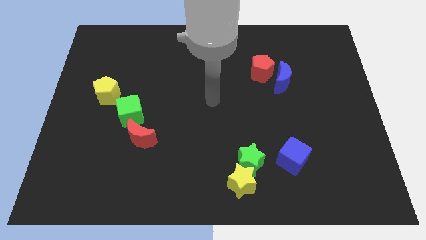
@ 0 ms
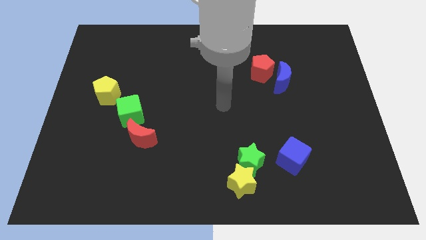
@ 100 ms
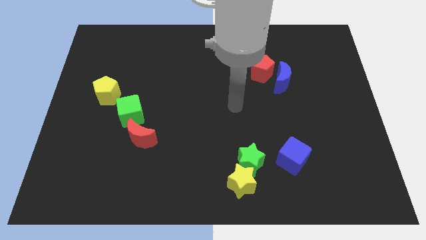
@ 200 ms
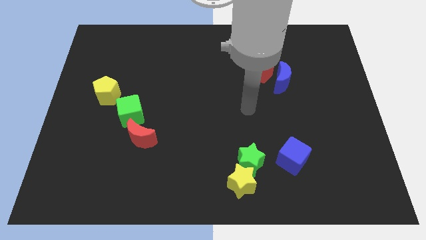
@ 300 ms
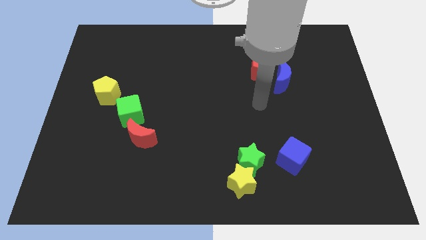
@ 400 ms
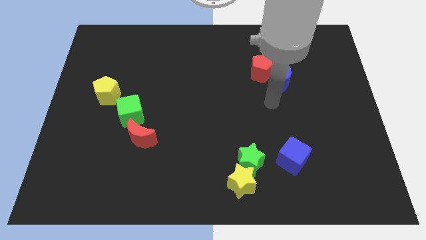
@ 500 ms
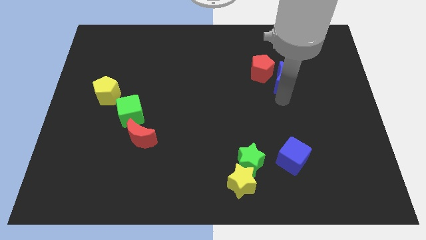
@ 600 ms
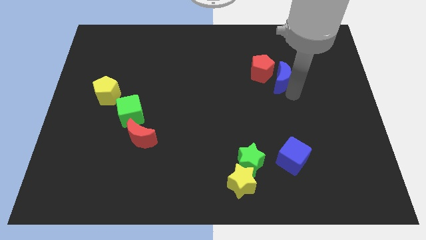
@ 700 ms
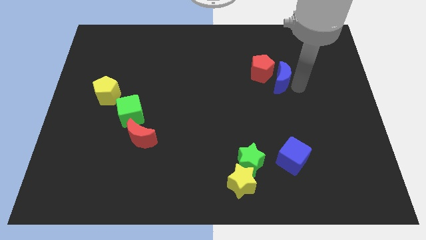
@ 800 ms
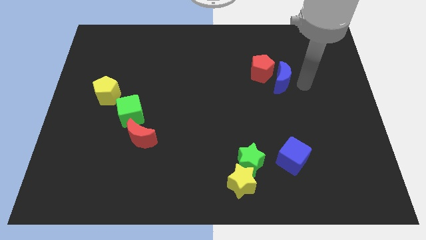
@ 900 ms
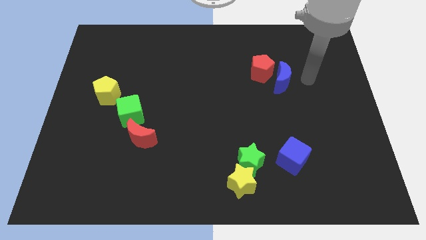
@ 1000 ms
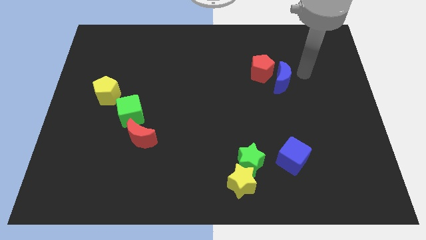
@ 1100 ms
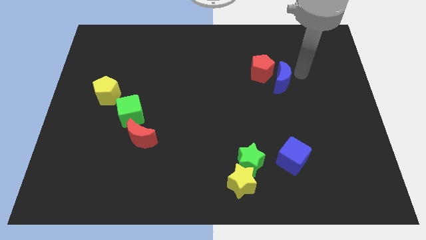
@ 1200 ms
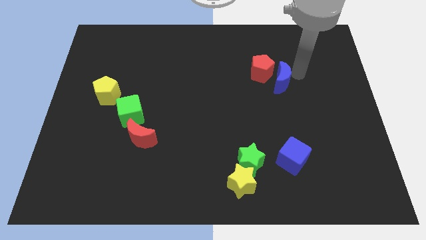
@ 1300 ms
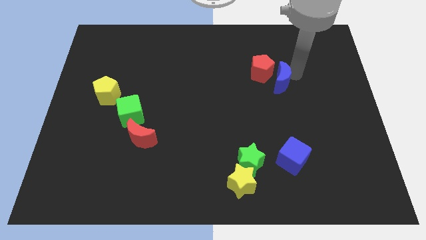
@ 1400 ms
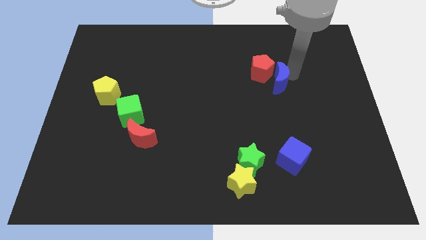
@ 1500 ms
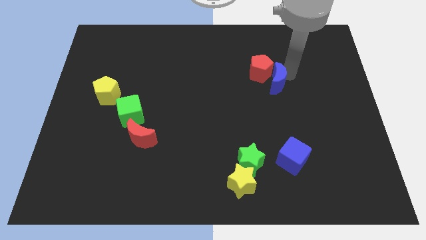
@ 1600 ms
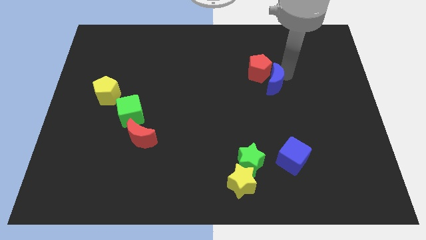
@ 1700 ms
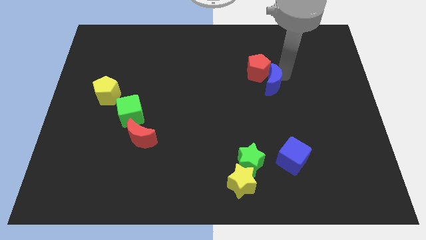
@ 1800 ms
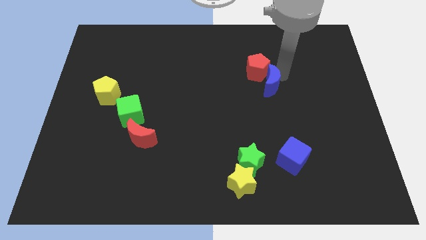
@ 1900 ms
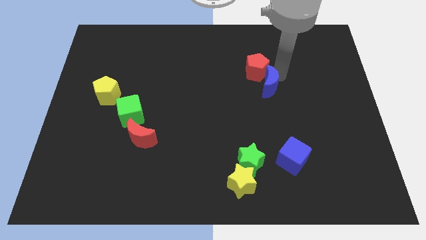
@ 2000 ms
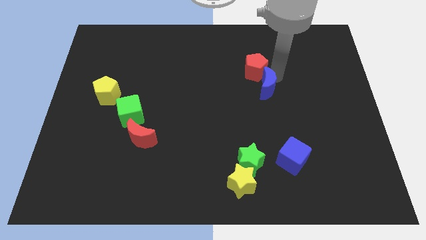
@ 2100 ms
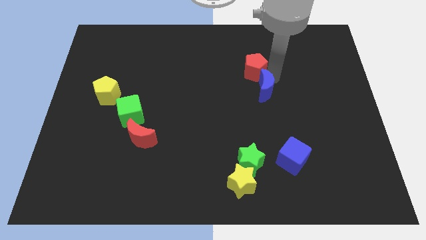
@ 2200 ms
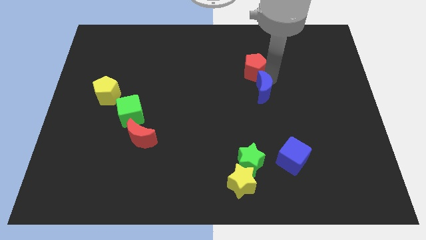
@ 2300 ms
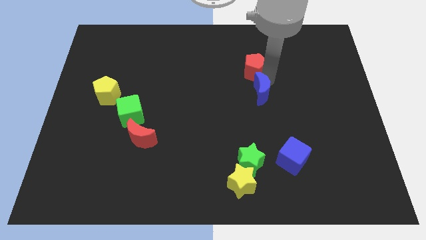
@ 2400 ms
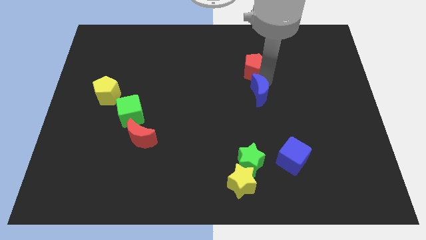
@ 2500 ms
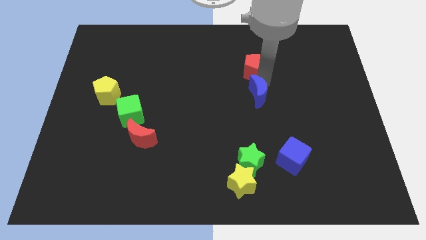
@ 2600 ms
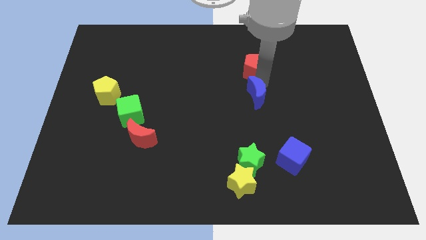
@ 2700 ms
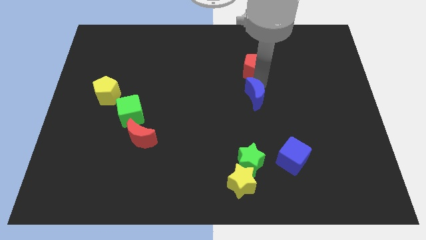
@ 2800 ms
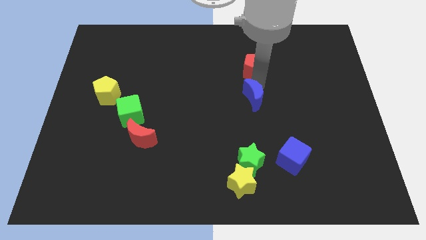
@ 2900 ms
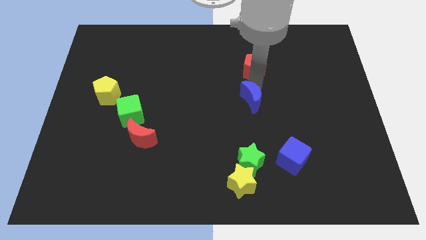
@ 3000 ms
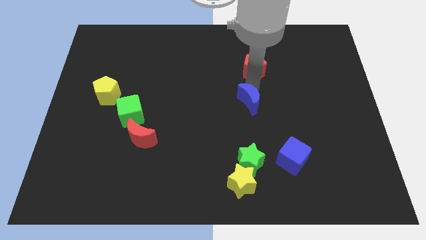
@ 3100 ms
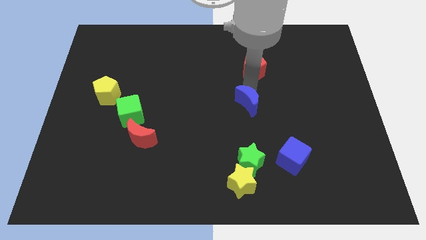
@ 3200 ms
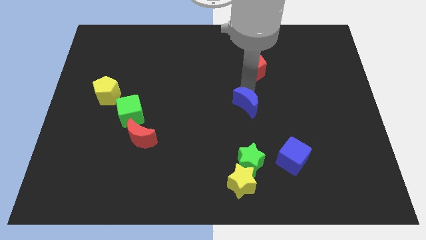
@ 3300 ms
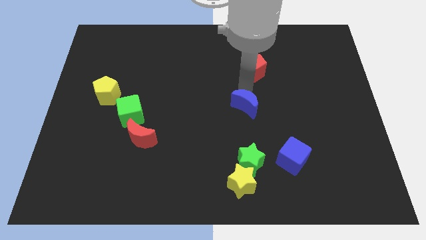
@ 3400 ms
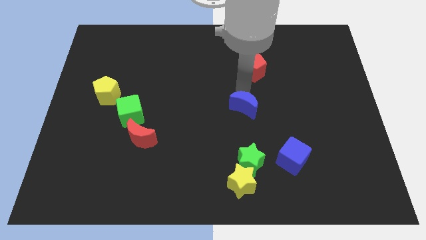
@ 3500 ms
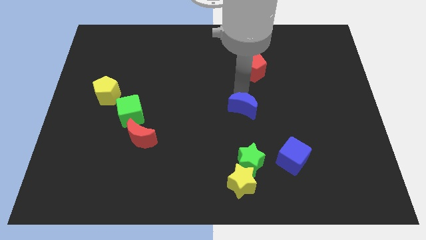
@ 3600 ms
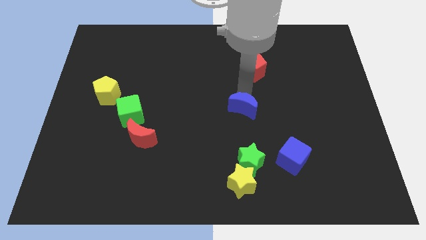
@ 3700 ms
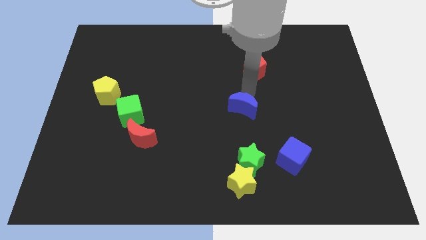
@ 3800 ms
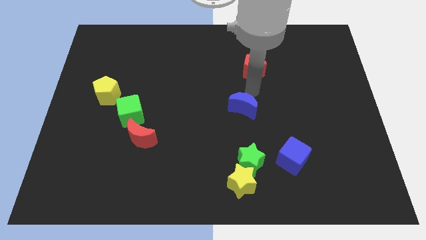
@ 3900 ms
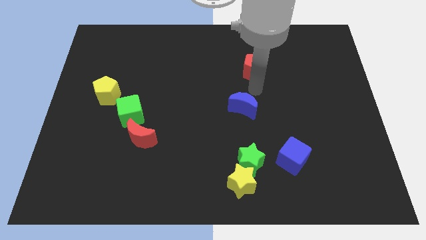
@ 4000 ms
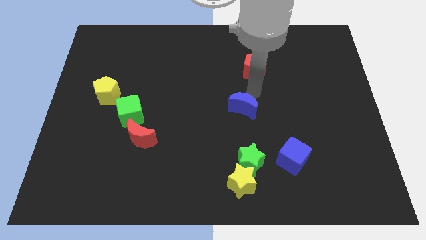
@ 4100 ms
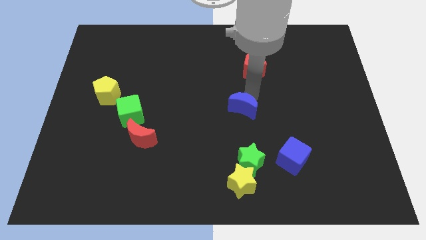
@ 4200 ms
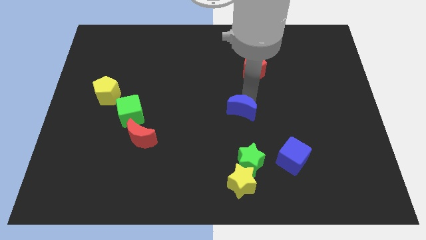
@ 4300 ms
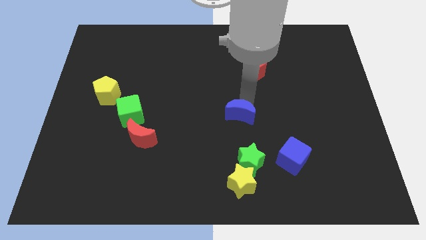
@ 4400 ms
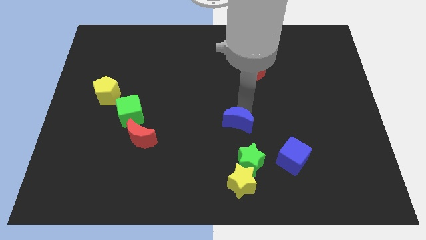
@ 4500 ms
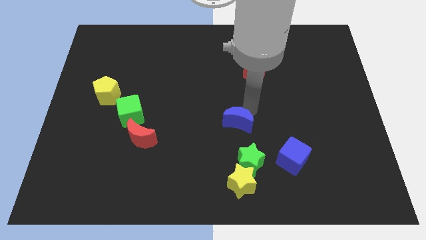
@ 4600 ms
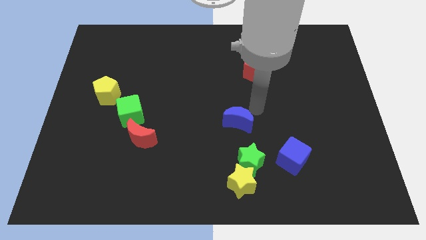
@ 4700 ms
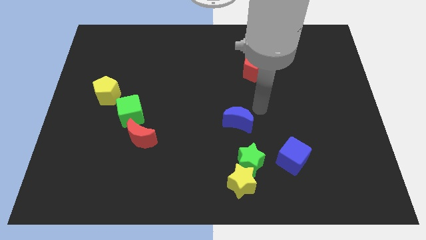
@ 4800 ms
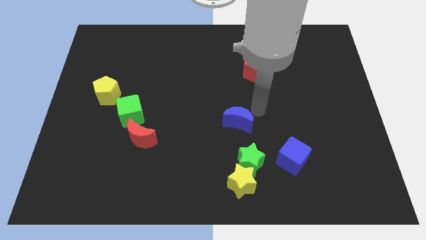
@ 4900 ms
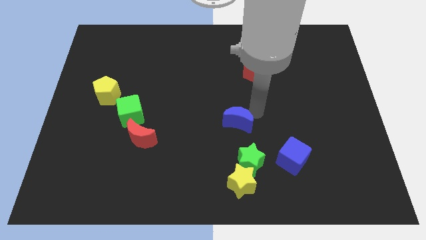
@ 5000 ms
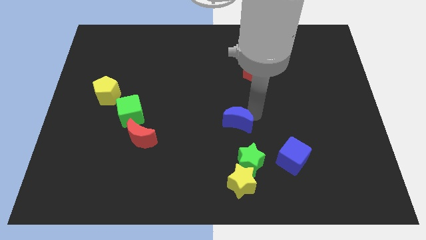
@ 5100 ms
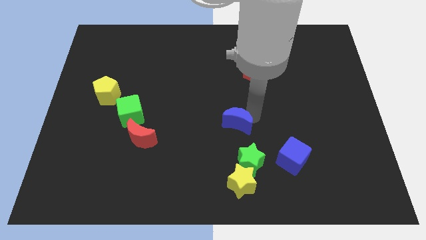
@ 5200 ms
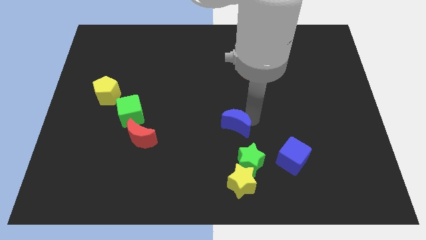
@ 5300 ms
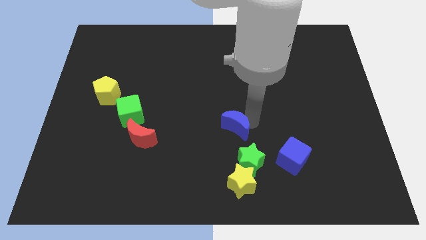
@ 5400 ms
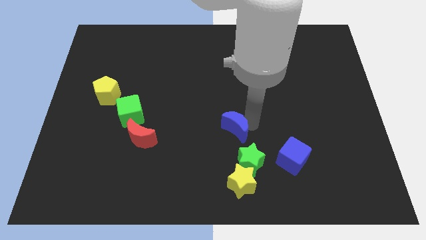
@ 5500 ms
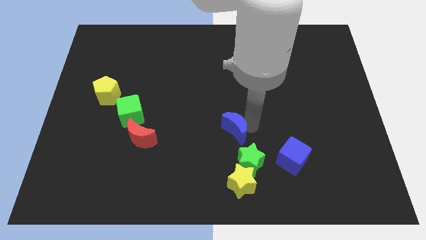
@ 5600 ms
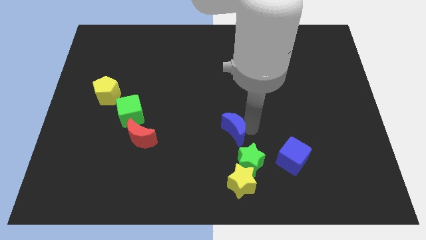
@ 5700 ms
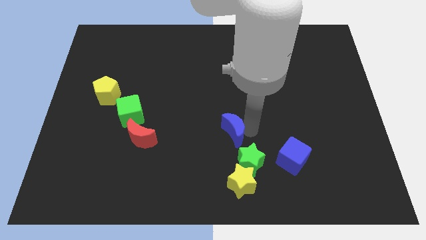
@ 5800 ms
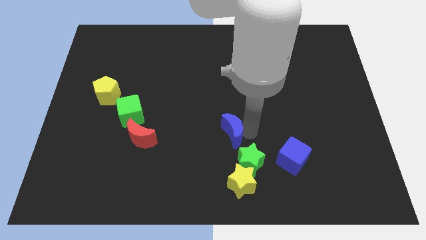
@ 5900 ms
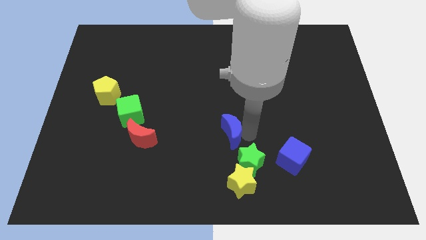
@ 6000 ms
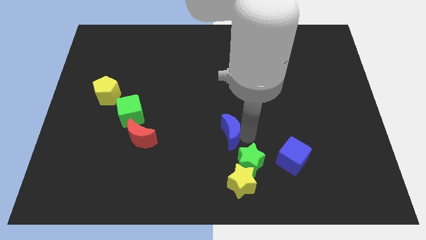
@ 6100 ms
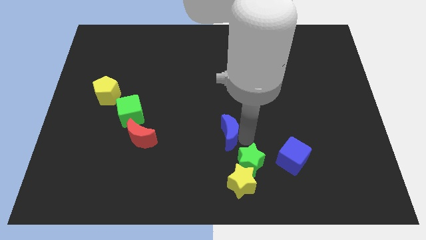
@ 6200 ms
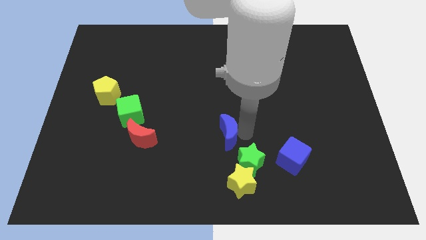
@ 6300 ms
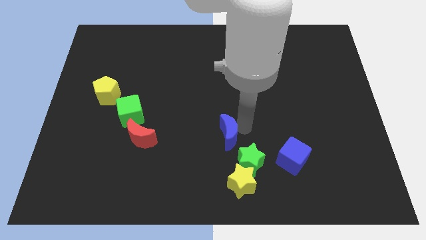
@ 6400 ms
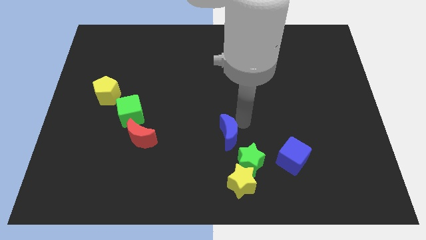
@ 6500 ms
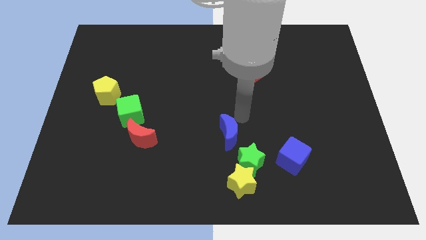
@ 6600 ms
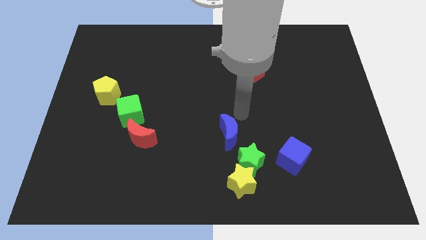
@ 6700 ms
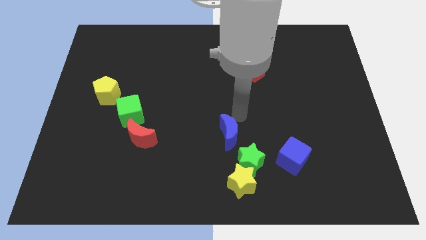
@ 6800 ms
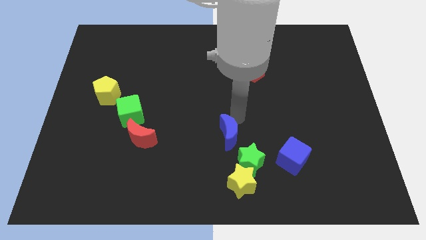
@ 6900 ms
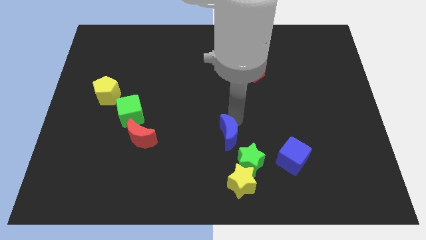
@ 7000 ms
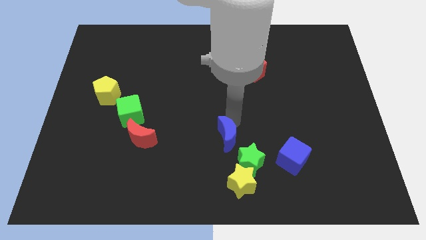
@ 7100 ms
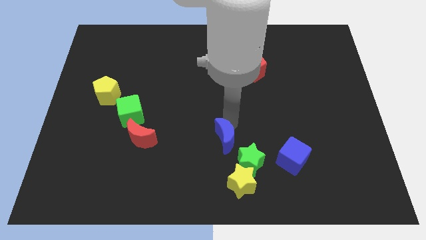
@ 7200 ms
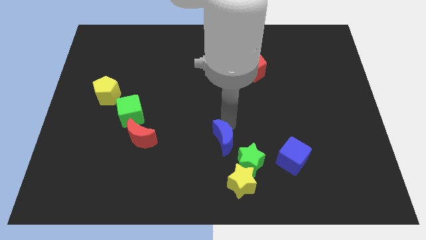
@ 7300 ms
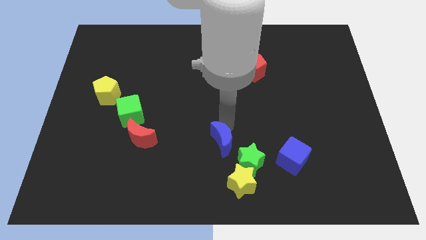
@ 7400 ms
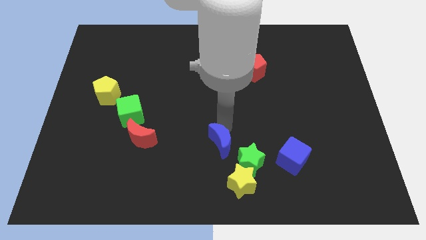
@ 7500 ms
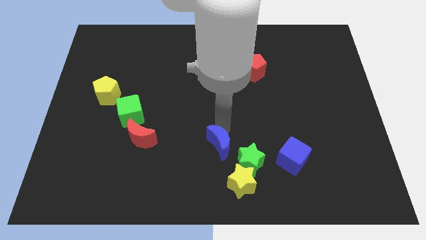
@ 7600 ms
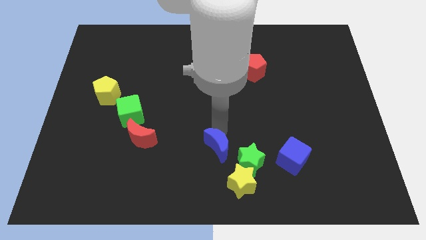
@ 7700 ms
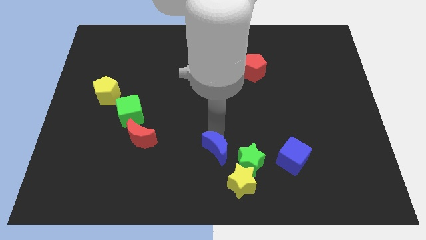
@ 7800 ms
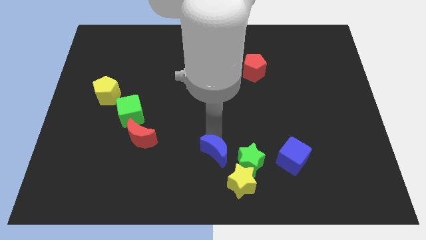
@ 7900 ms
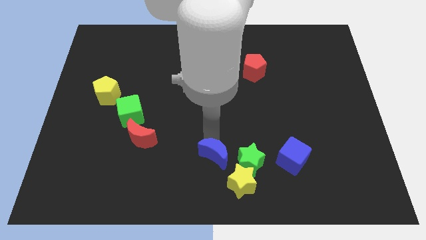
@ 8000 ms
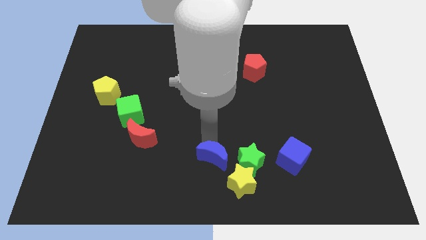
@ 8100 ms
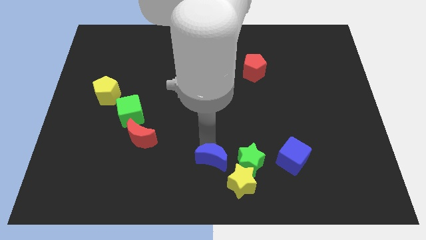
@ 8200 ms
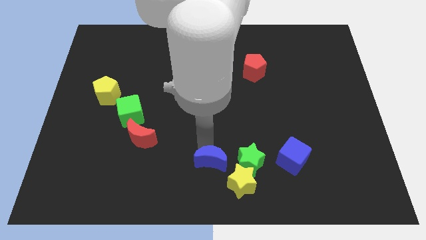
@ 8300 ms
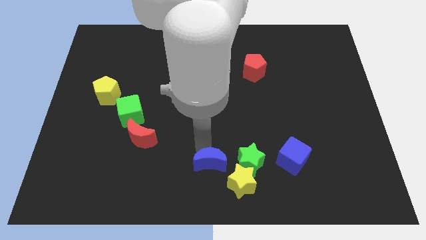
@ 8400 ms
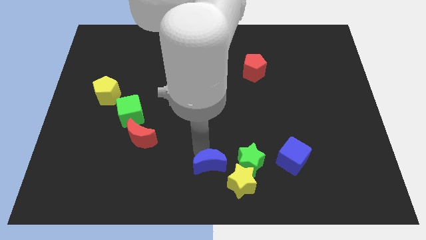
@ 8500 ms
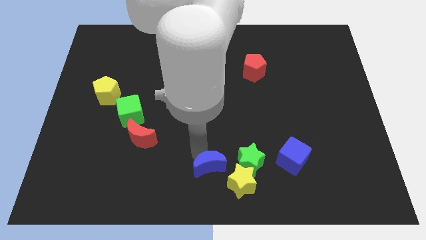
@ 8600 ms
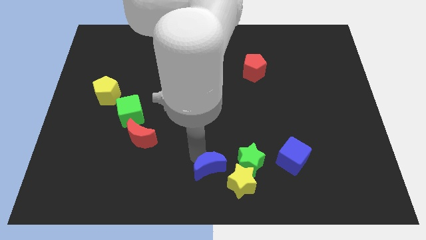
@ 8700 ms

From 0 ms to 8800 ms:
push the blue moon diagonally down and to the left of the green star
